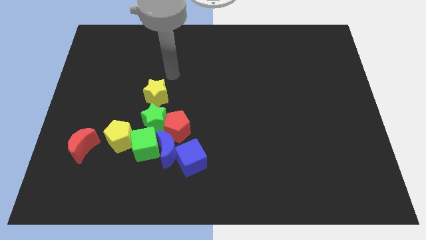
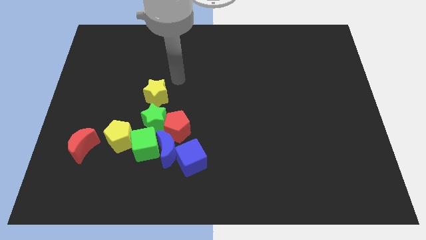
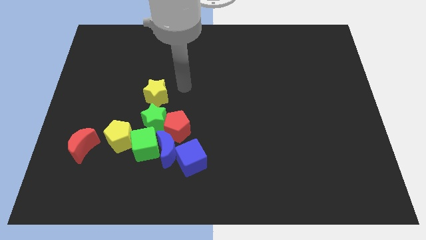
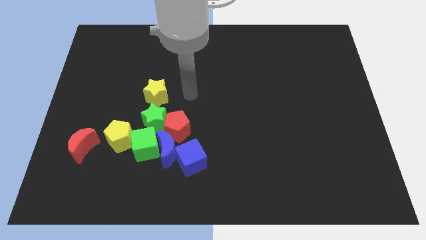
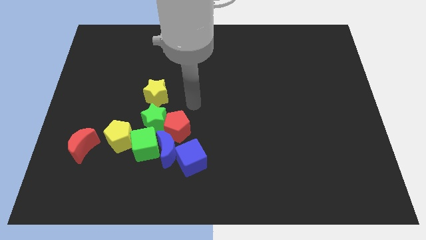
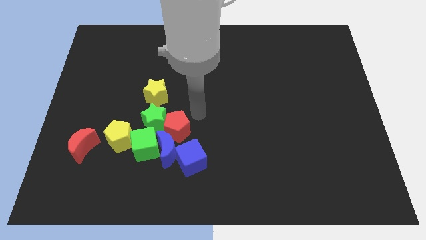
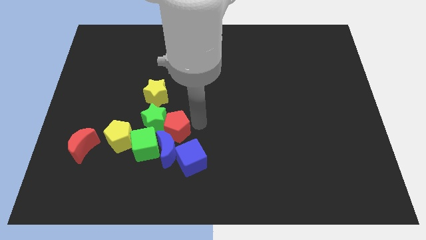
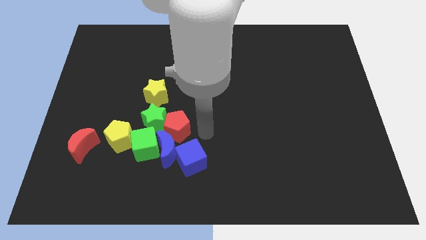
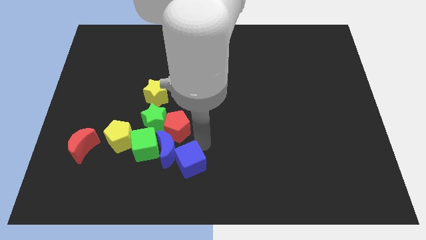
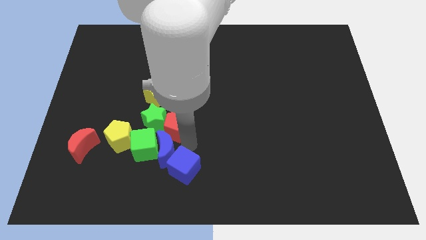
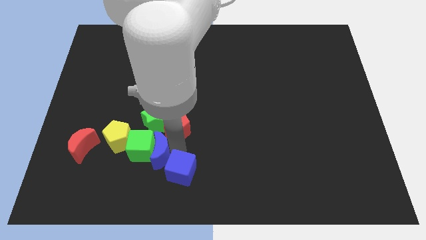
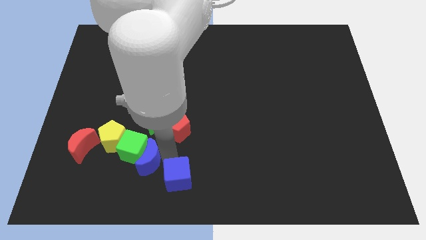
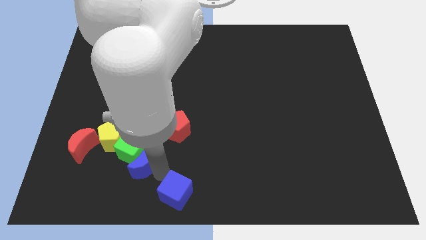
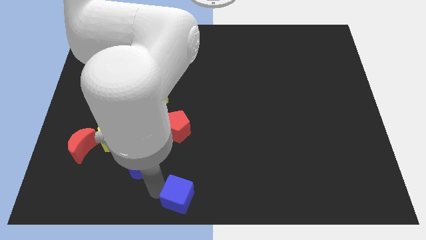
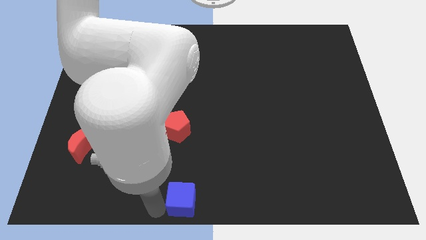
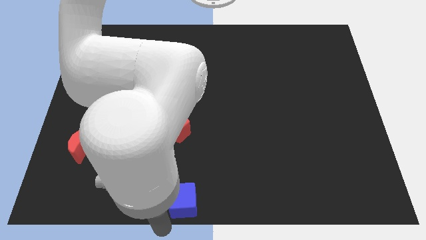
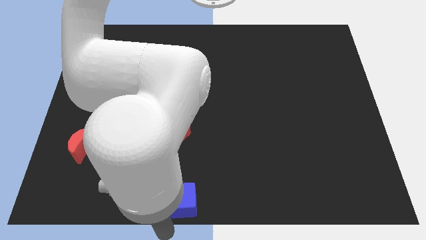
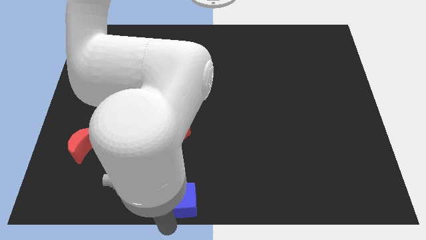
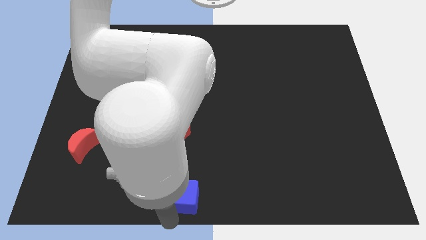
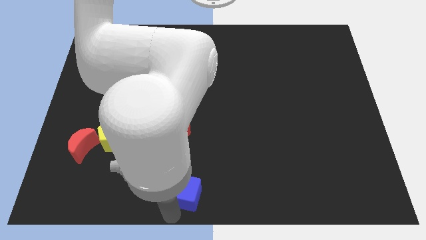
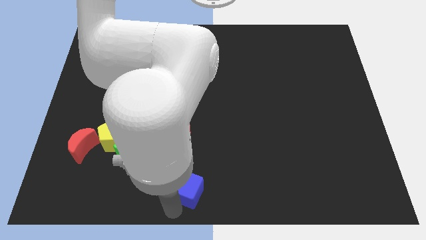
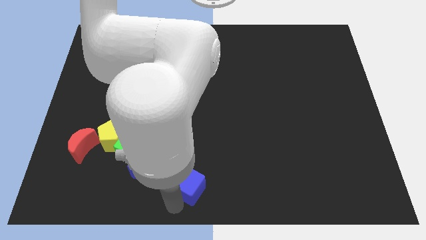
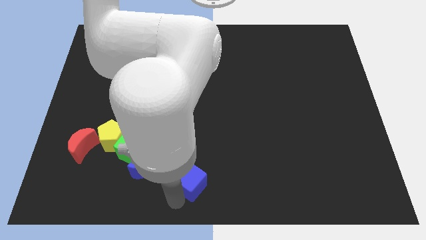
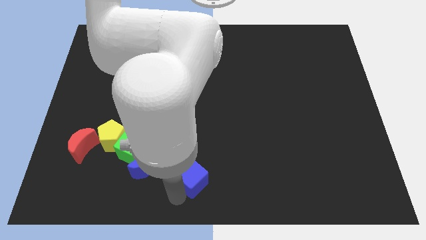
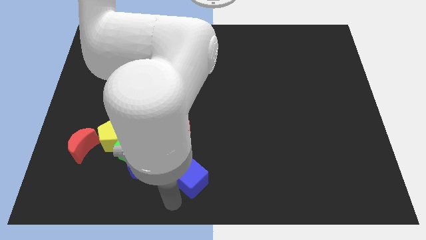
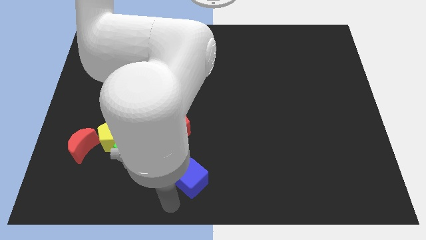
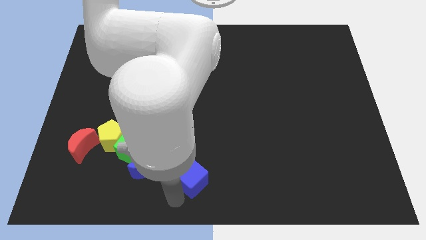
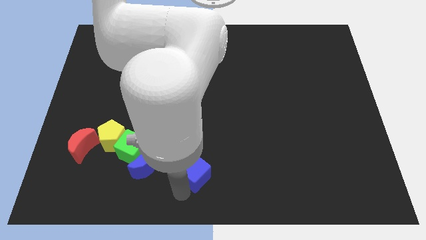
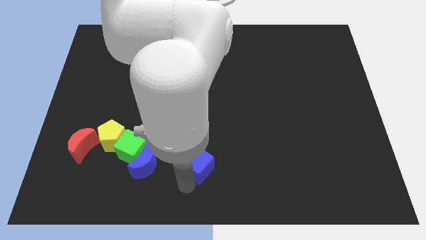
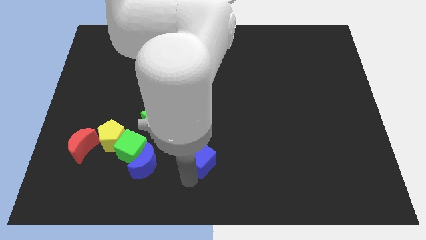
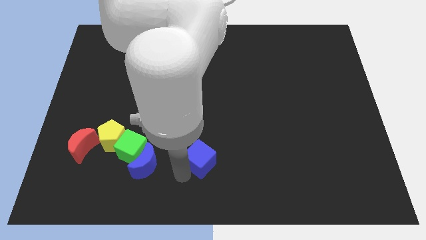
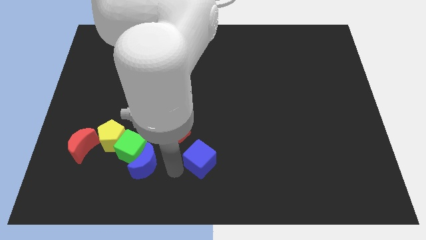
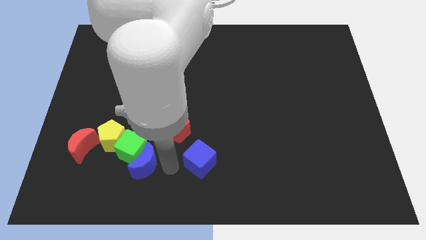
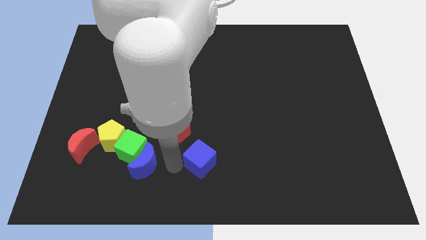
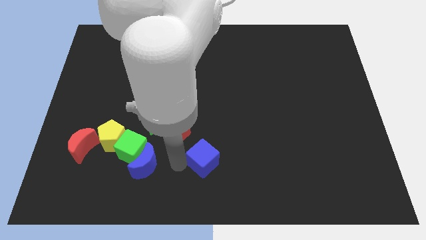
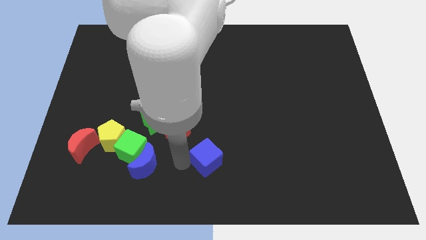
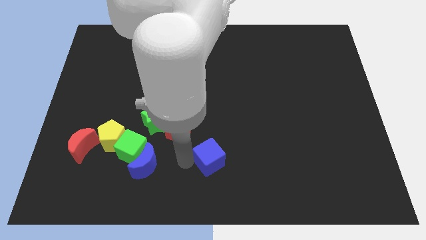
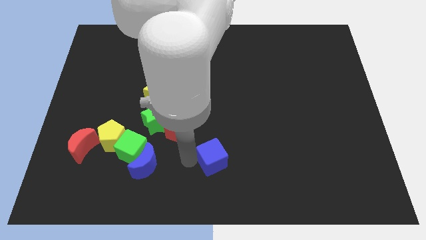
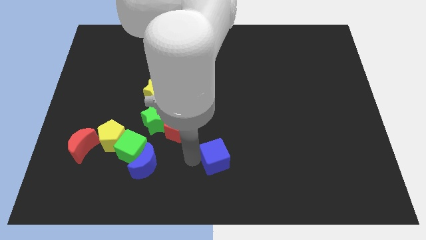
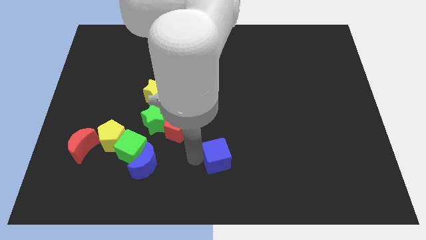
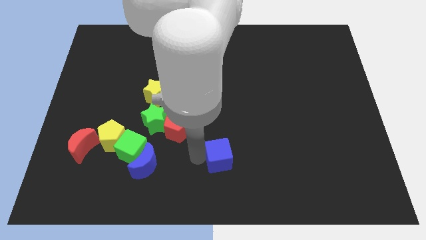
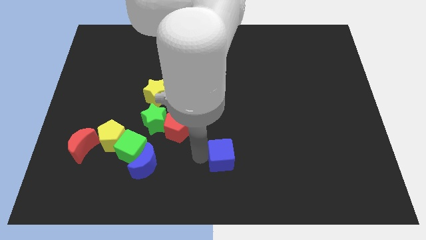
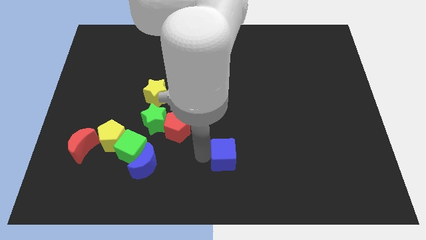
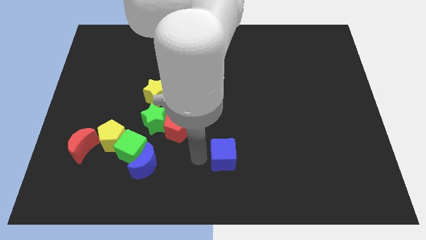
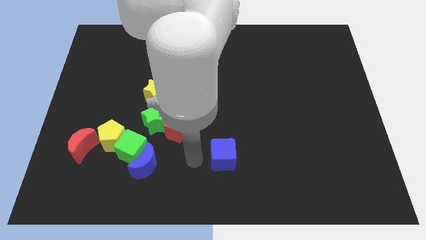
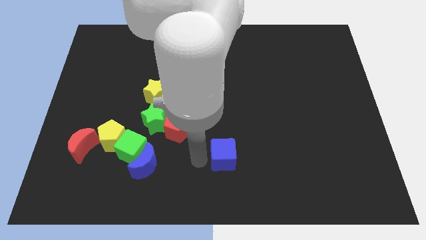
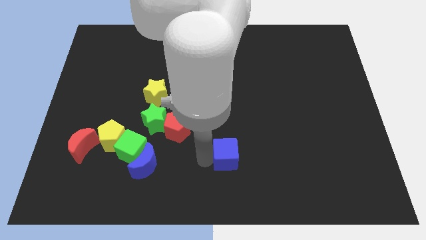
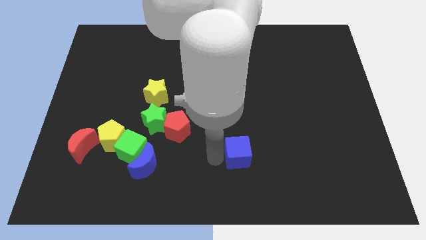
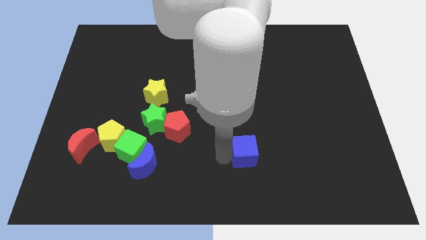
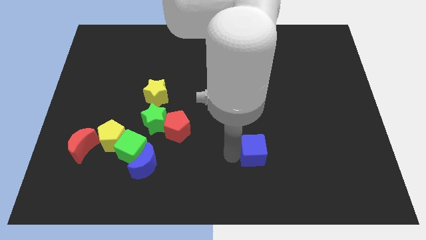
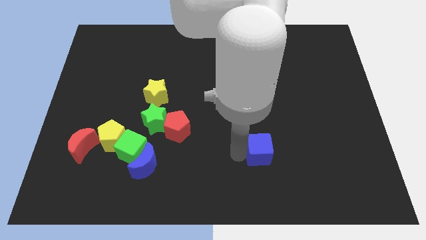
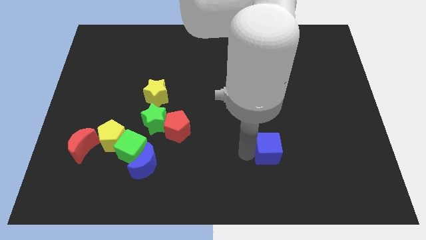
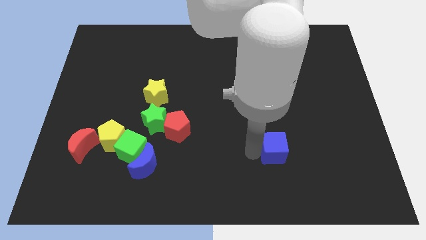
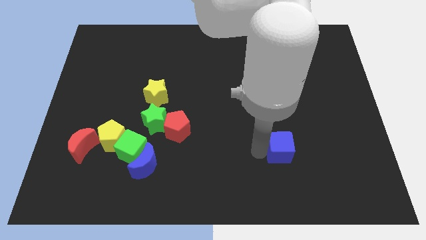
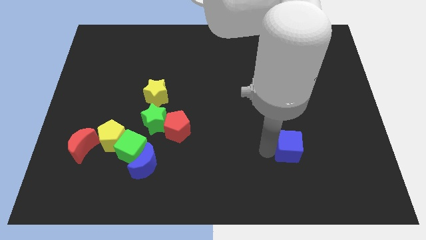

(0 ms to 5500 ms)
move the blue cube right

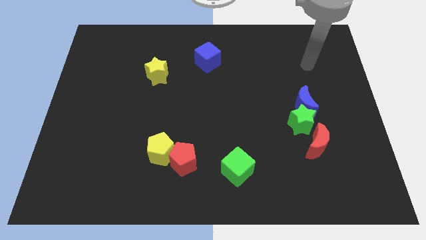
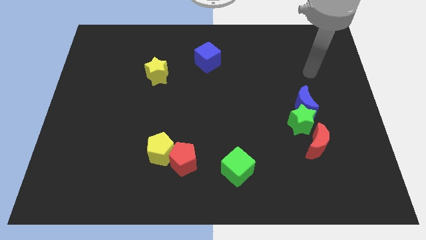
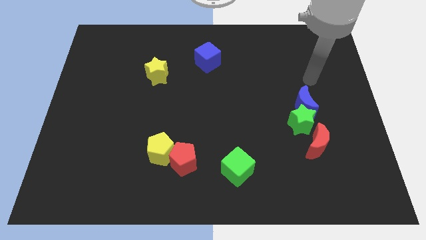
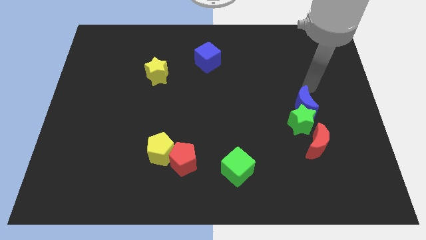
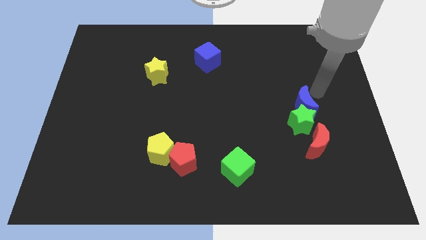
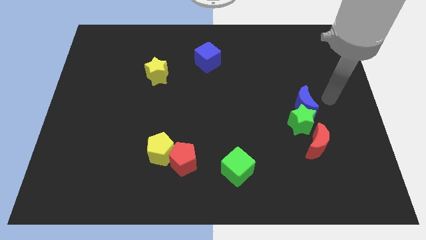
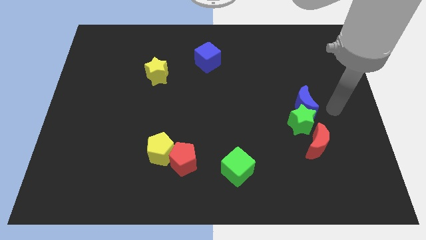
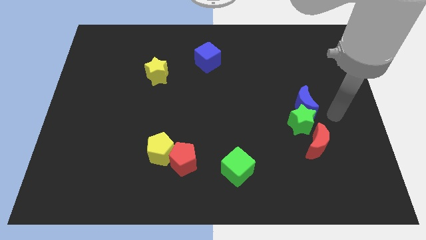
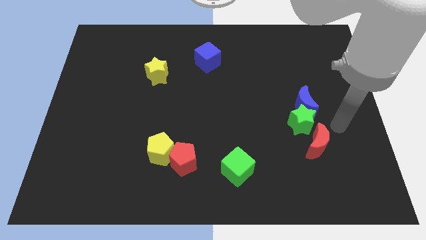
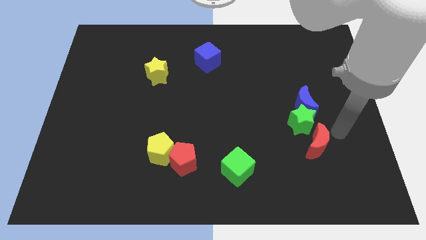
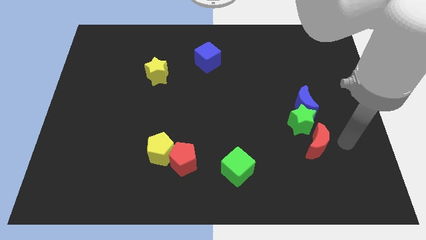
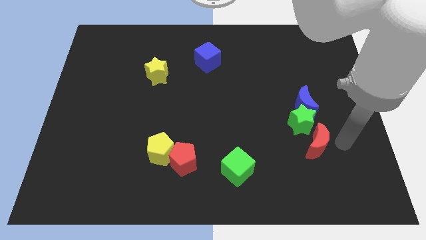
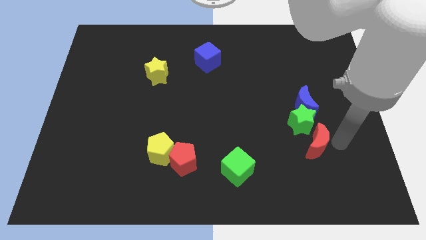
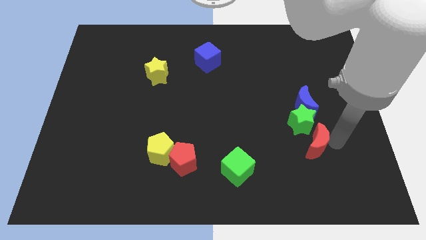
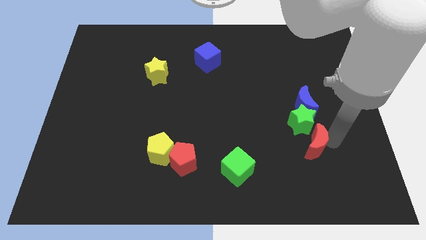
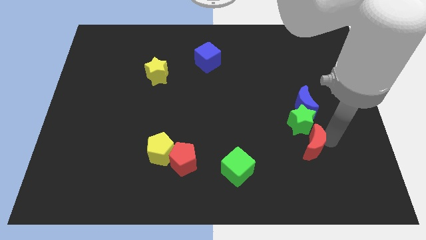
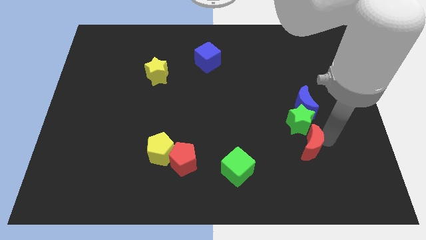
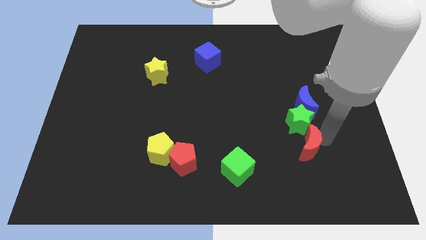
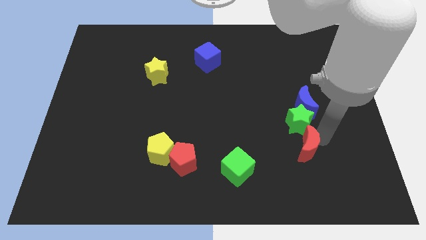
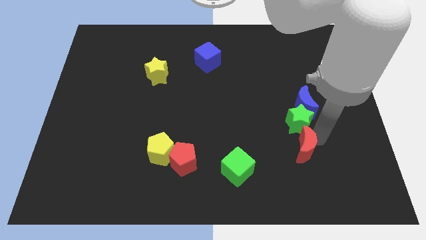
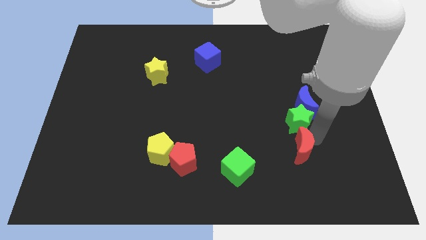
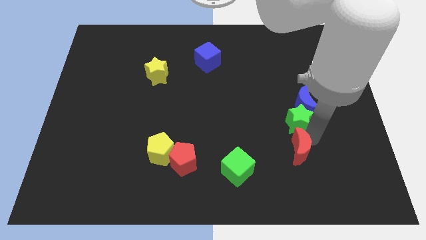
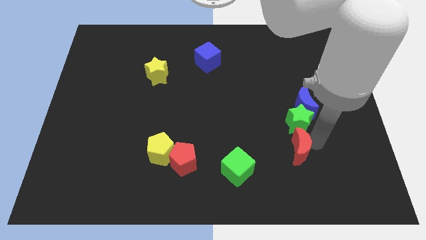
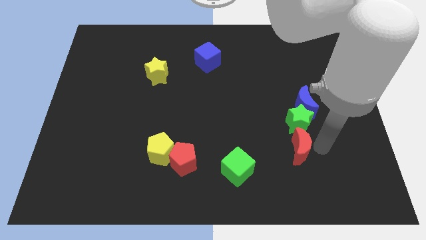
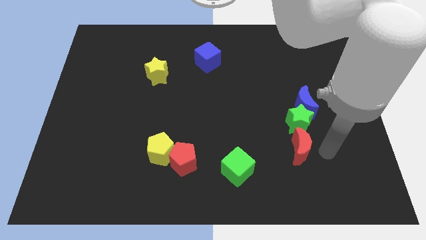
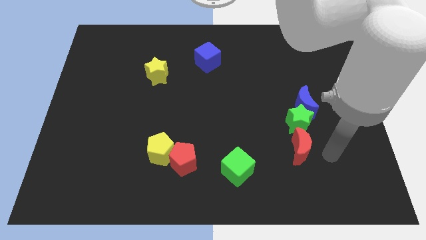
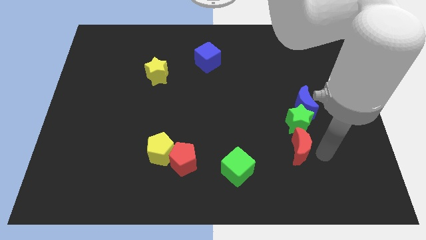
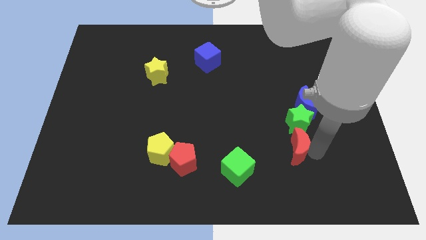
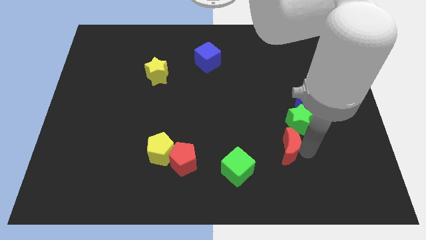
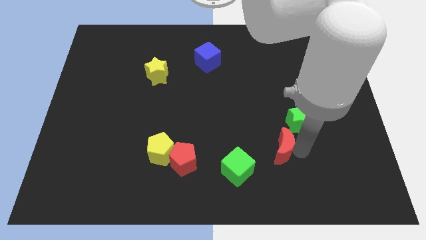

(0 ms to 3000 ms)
push the red moon somewhat to the left
